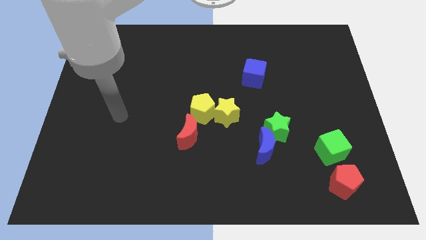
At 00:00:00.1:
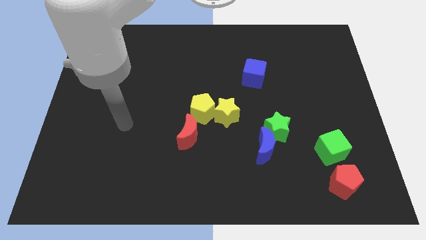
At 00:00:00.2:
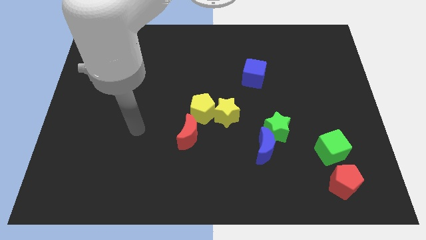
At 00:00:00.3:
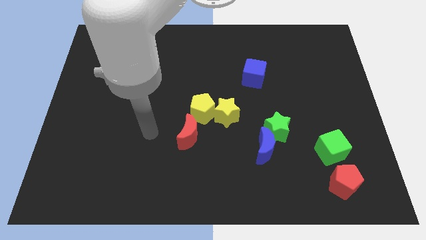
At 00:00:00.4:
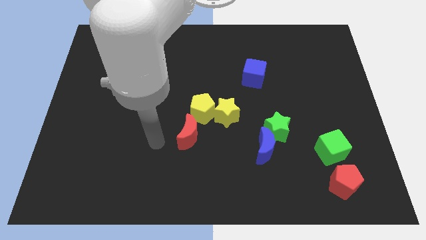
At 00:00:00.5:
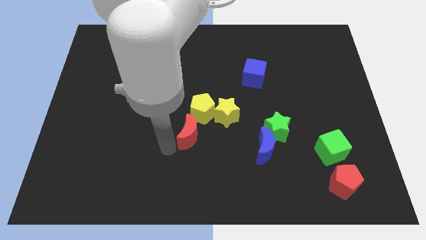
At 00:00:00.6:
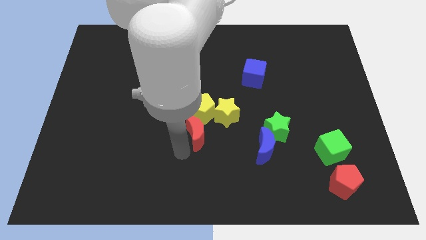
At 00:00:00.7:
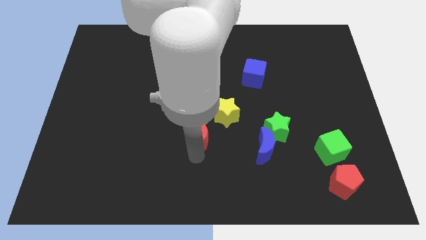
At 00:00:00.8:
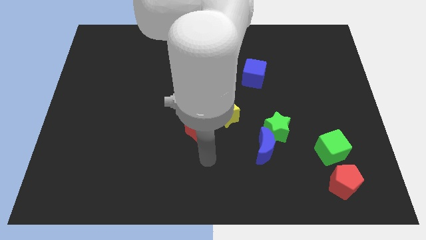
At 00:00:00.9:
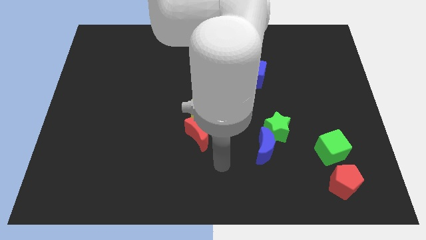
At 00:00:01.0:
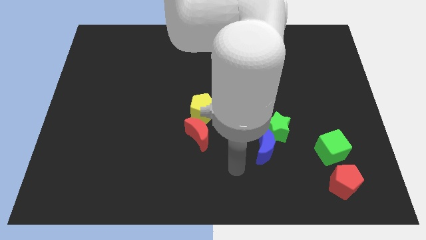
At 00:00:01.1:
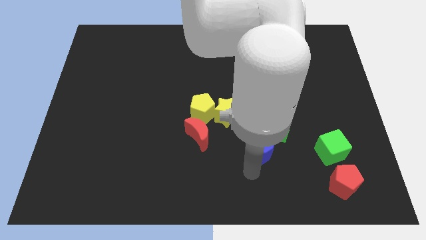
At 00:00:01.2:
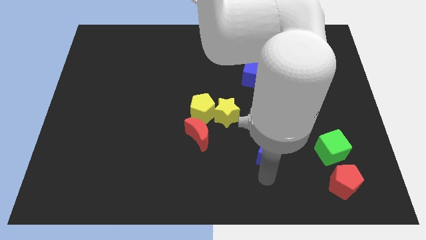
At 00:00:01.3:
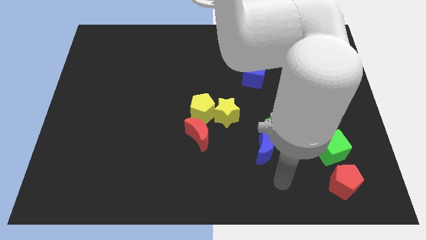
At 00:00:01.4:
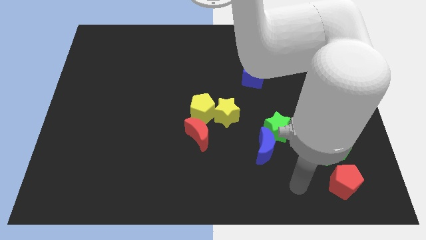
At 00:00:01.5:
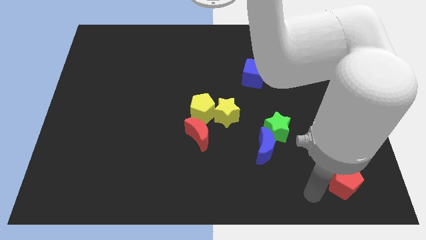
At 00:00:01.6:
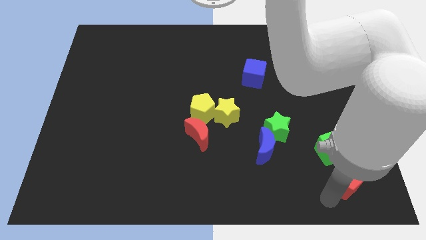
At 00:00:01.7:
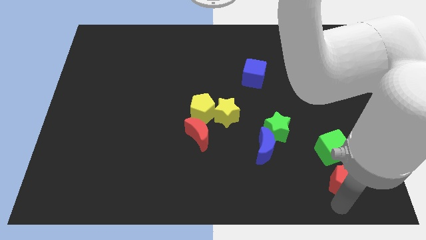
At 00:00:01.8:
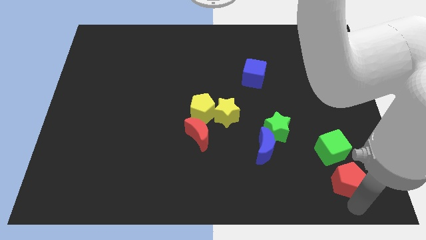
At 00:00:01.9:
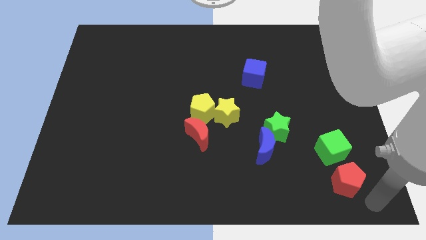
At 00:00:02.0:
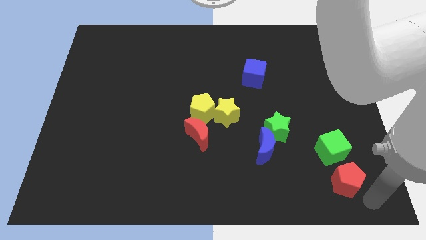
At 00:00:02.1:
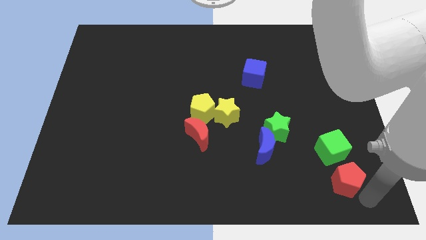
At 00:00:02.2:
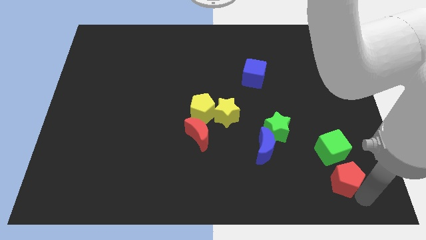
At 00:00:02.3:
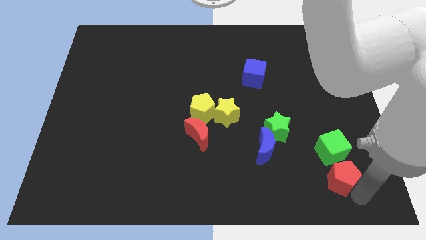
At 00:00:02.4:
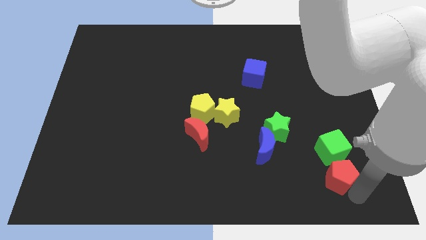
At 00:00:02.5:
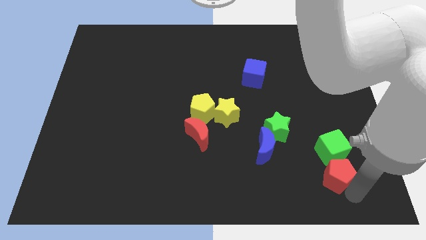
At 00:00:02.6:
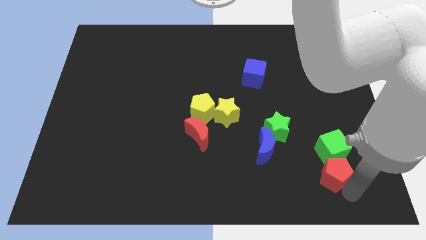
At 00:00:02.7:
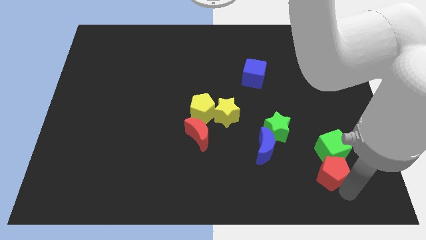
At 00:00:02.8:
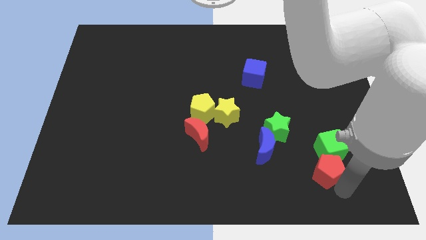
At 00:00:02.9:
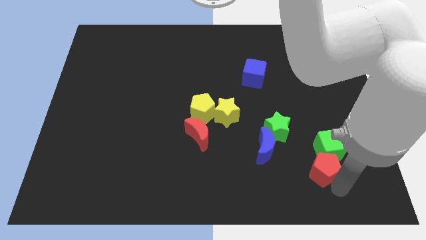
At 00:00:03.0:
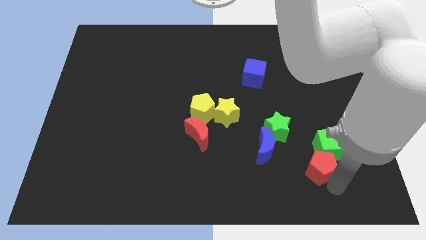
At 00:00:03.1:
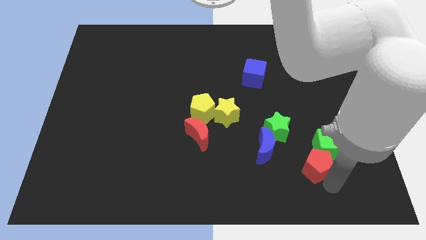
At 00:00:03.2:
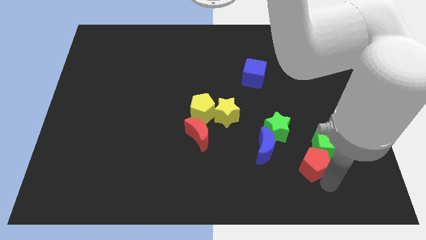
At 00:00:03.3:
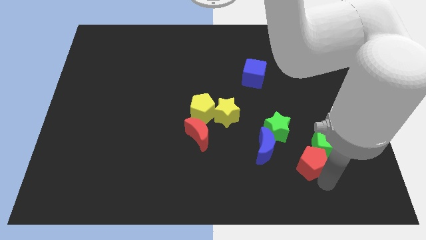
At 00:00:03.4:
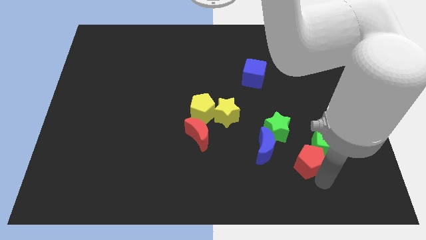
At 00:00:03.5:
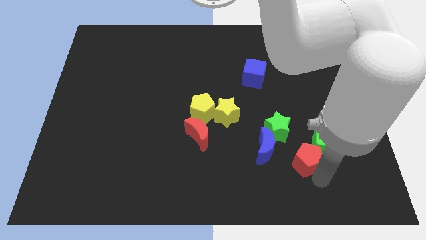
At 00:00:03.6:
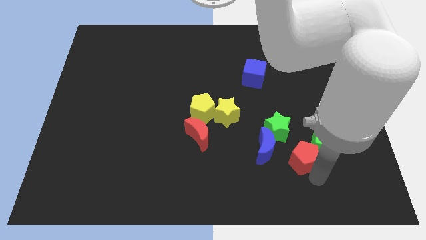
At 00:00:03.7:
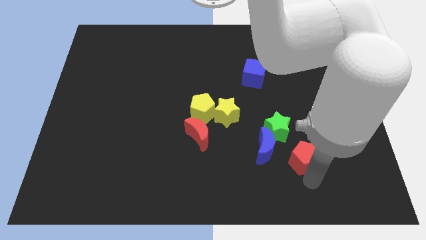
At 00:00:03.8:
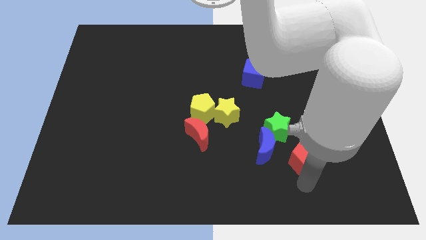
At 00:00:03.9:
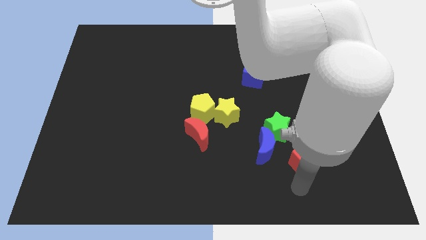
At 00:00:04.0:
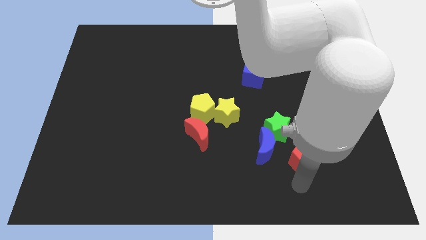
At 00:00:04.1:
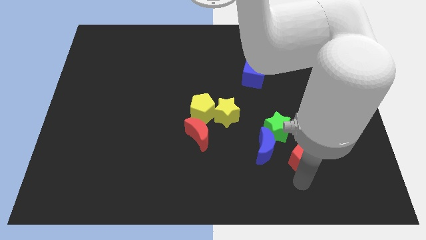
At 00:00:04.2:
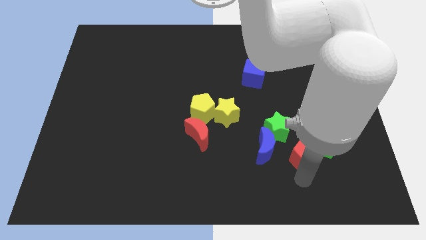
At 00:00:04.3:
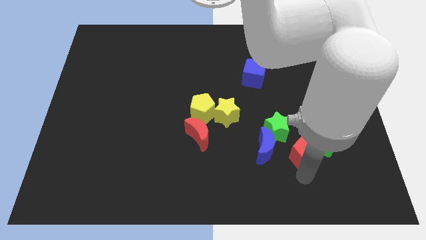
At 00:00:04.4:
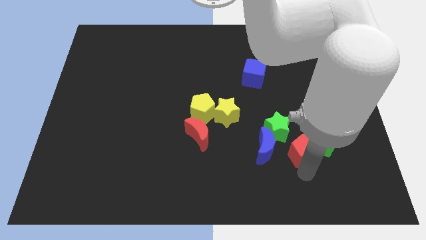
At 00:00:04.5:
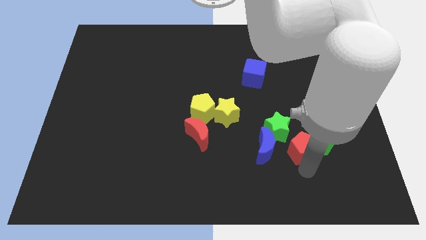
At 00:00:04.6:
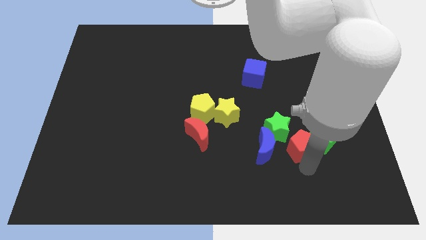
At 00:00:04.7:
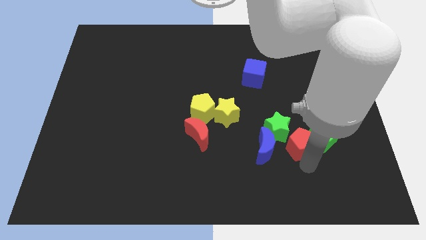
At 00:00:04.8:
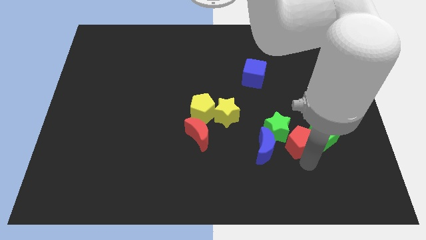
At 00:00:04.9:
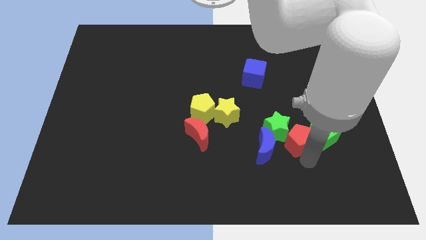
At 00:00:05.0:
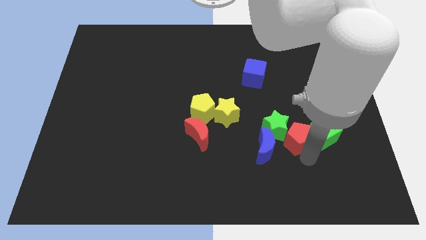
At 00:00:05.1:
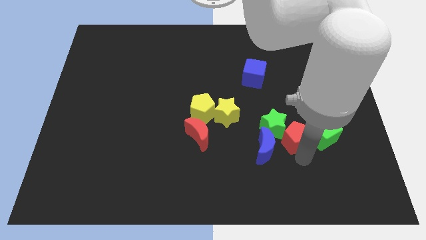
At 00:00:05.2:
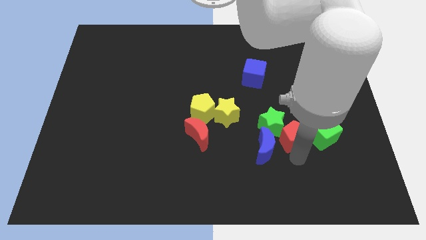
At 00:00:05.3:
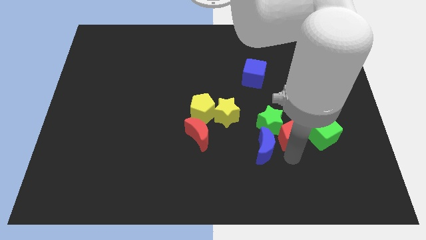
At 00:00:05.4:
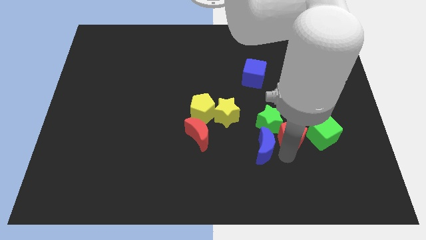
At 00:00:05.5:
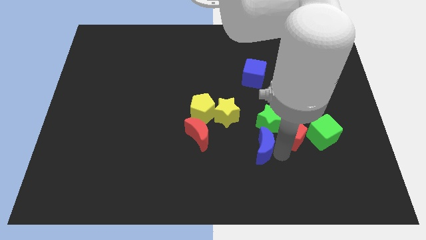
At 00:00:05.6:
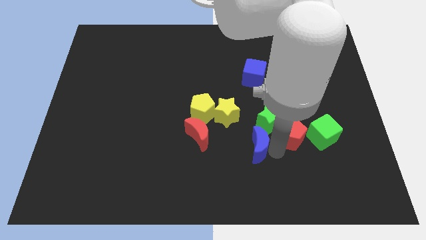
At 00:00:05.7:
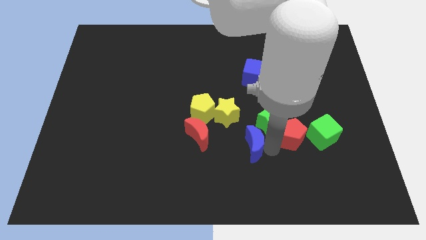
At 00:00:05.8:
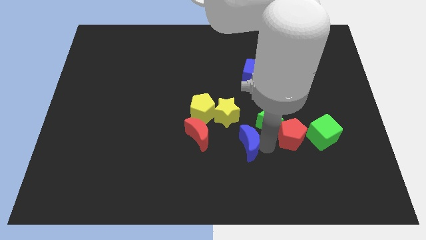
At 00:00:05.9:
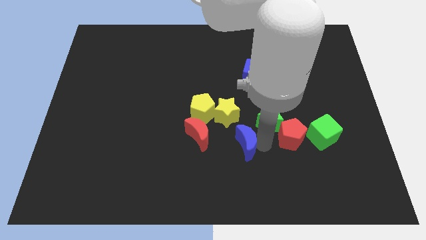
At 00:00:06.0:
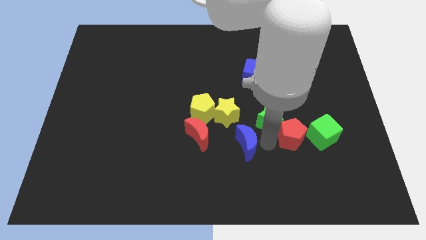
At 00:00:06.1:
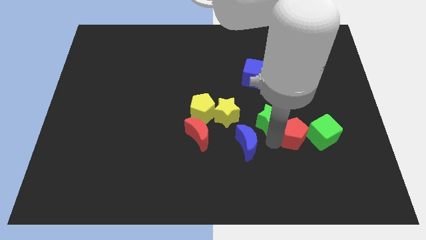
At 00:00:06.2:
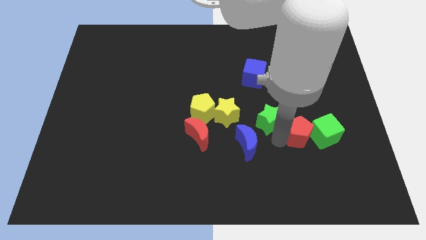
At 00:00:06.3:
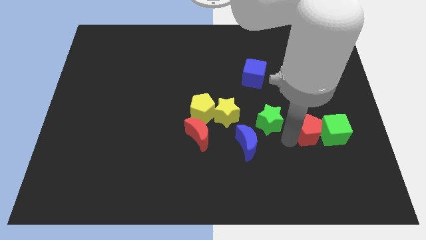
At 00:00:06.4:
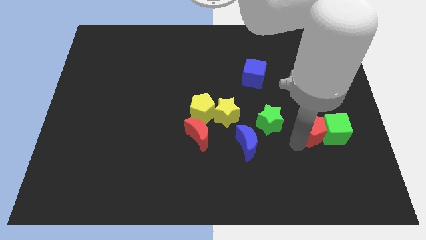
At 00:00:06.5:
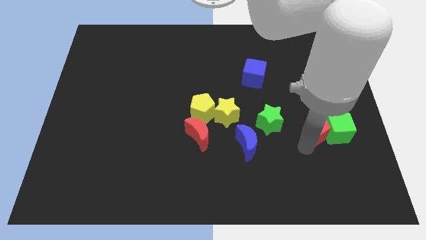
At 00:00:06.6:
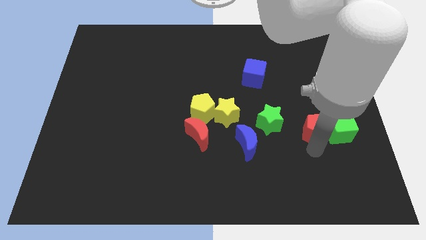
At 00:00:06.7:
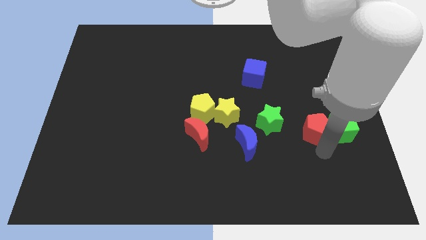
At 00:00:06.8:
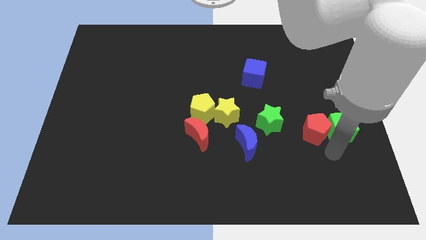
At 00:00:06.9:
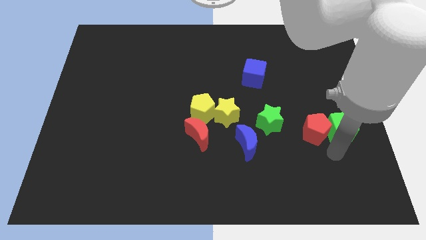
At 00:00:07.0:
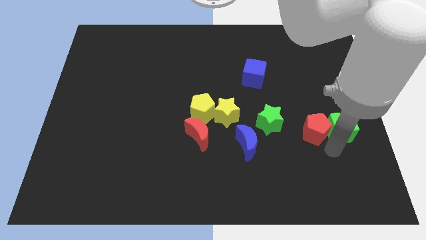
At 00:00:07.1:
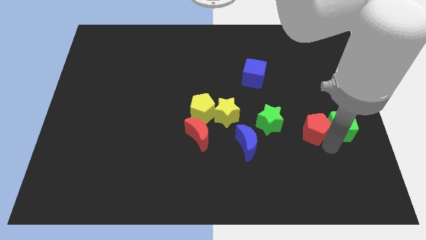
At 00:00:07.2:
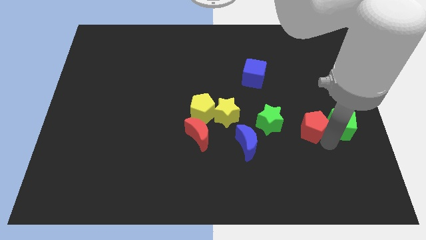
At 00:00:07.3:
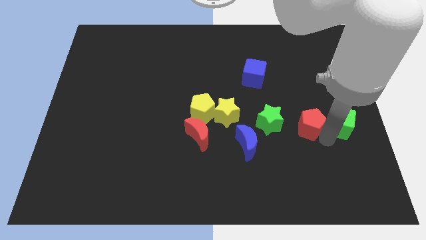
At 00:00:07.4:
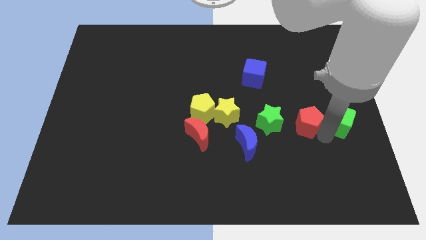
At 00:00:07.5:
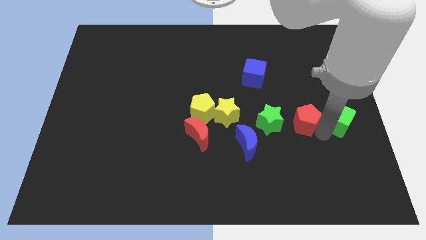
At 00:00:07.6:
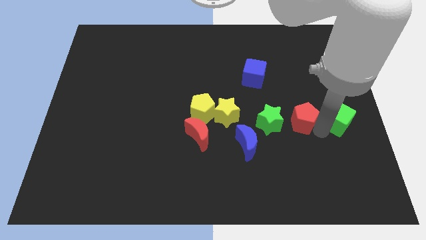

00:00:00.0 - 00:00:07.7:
slide the red pentagon diagonally up and to the right of the green star
